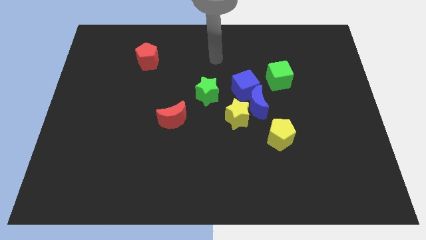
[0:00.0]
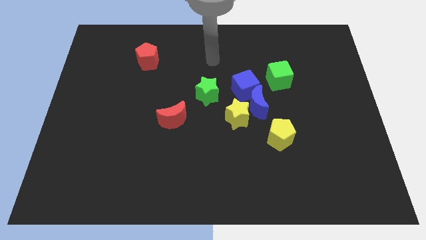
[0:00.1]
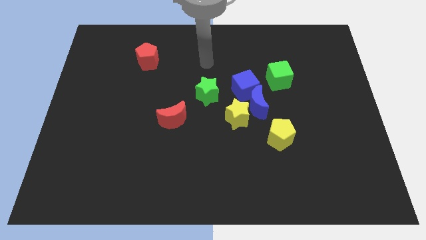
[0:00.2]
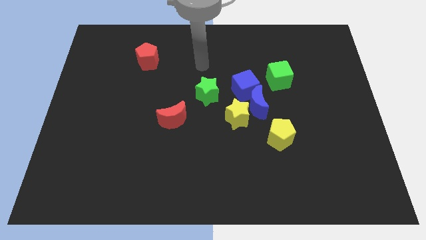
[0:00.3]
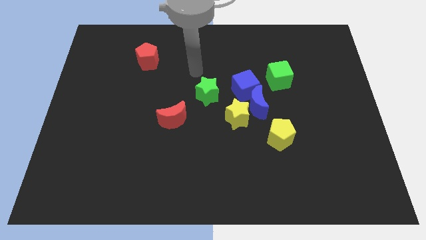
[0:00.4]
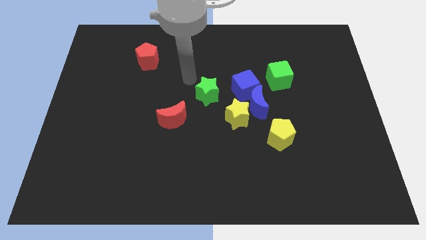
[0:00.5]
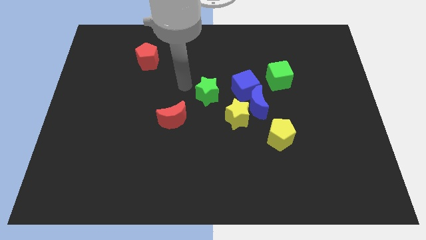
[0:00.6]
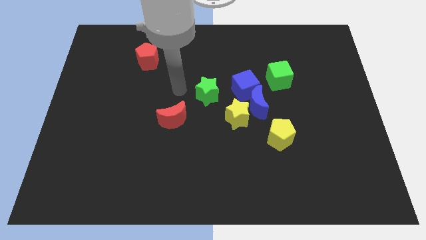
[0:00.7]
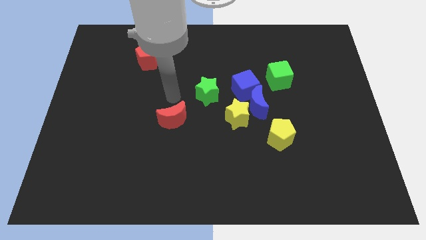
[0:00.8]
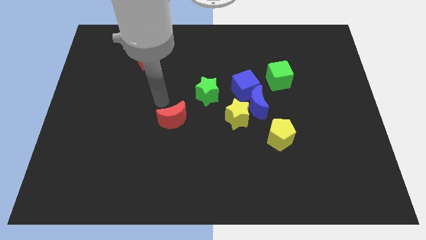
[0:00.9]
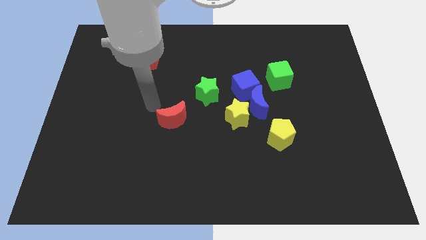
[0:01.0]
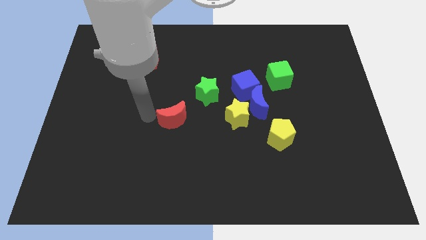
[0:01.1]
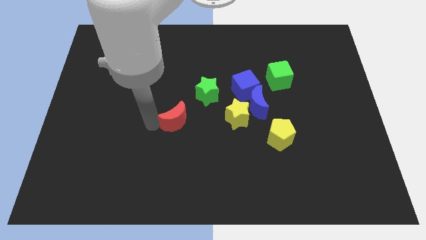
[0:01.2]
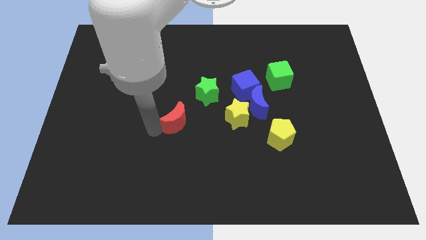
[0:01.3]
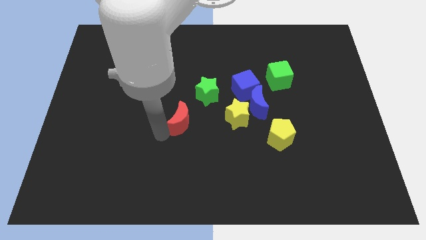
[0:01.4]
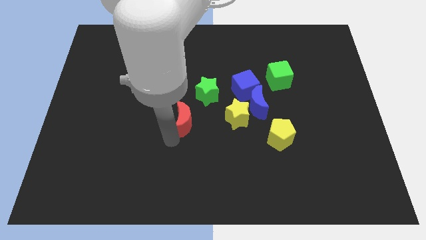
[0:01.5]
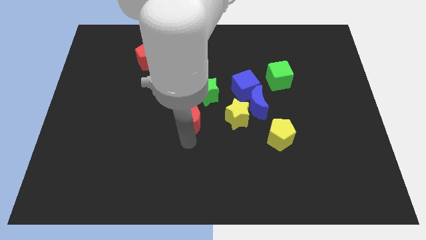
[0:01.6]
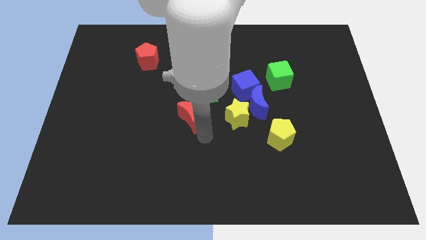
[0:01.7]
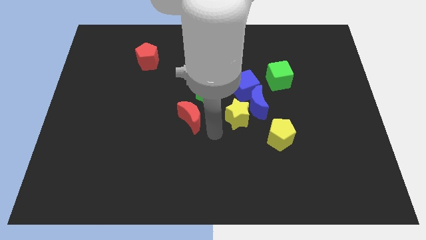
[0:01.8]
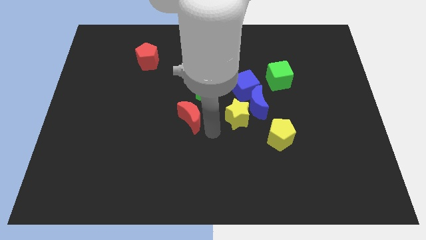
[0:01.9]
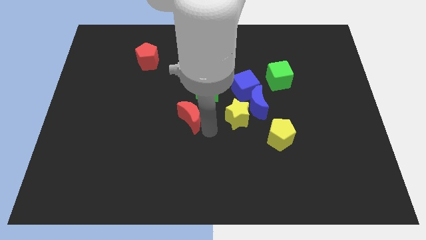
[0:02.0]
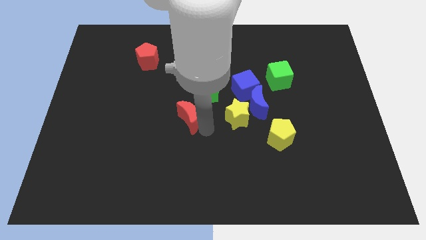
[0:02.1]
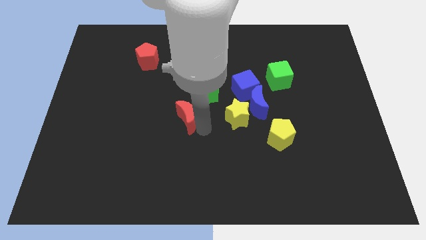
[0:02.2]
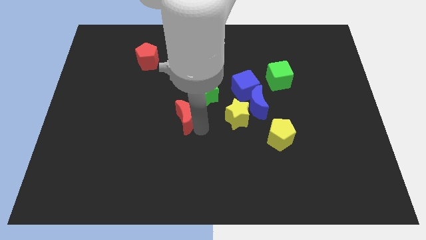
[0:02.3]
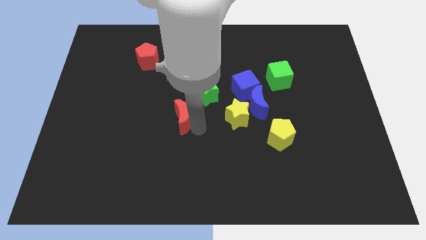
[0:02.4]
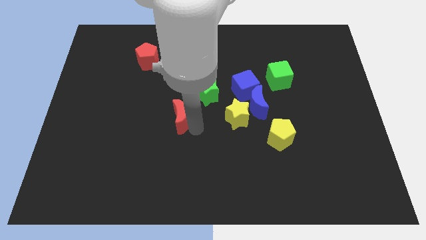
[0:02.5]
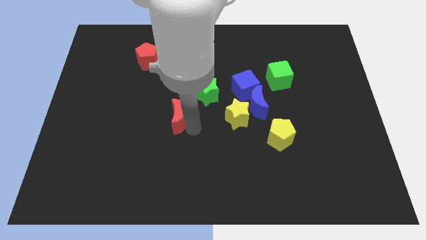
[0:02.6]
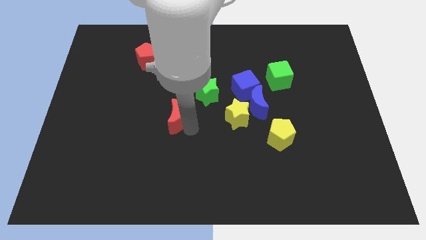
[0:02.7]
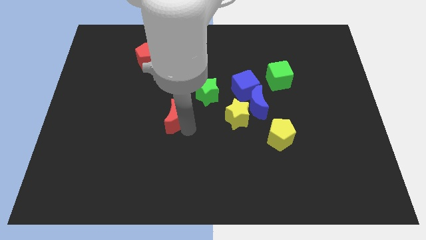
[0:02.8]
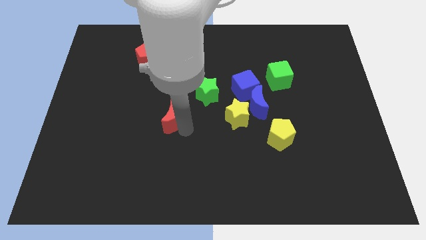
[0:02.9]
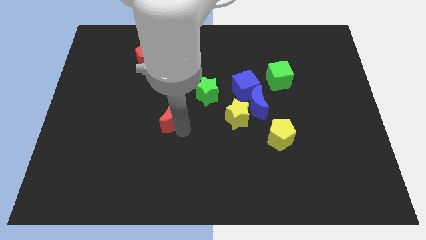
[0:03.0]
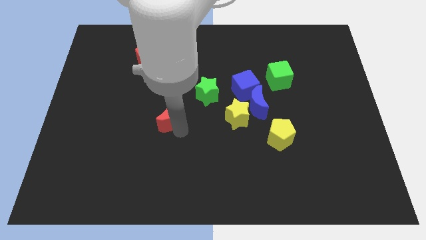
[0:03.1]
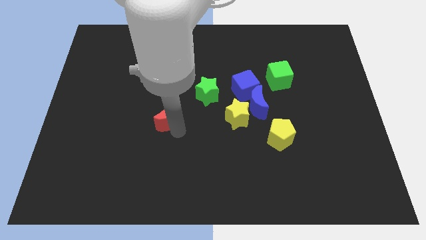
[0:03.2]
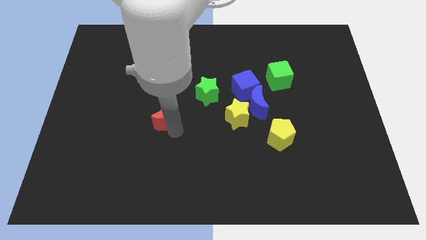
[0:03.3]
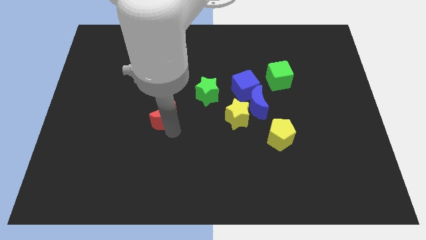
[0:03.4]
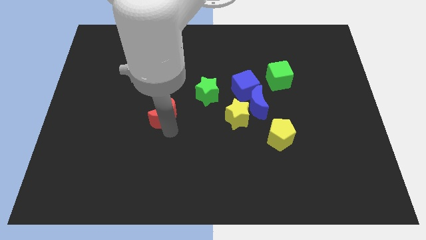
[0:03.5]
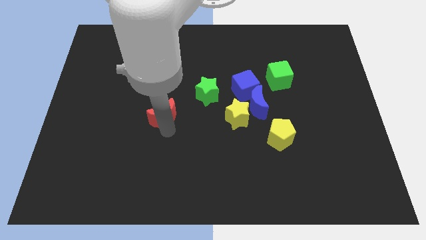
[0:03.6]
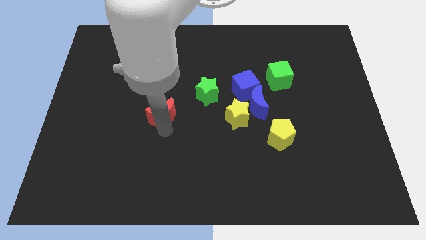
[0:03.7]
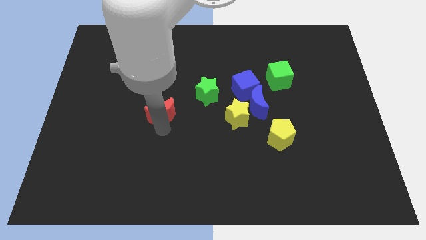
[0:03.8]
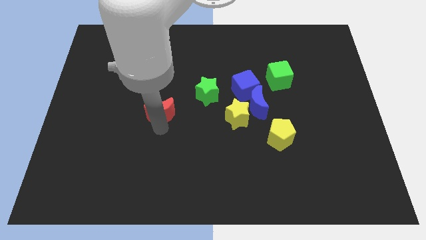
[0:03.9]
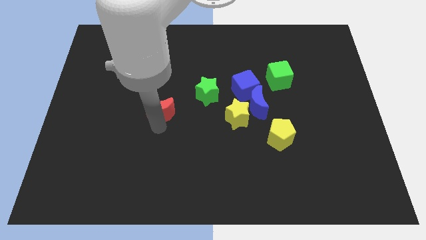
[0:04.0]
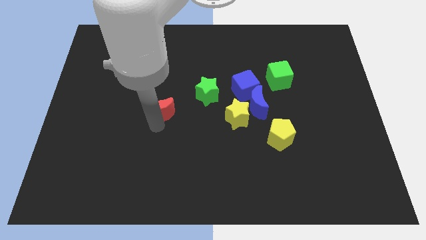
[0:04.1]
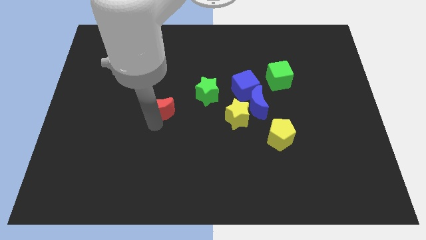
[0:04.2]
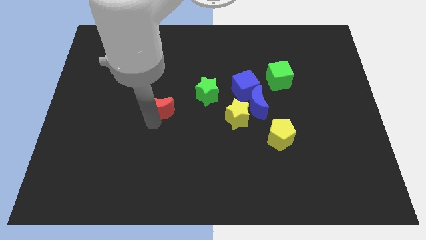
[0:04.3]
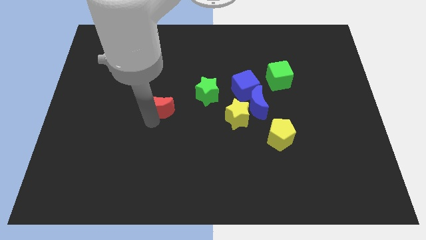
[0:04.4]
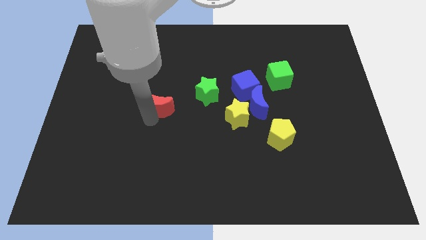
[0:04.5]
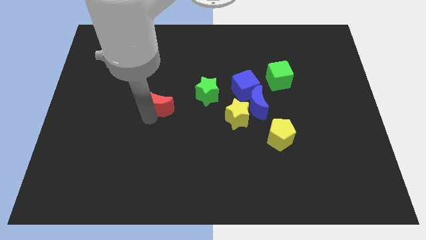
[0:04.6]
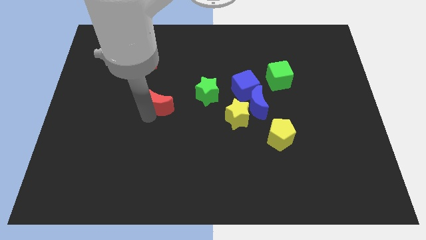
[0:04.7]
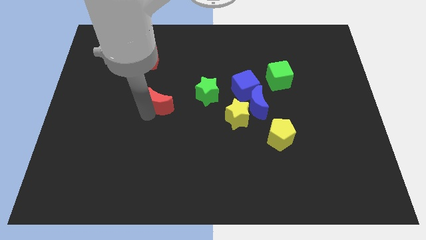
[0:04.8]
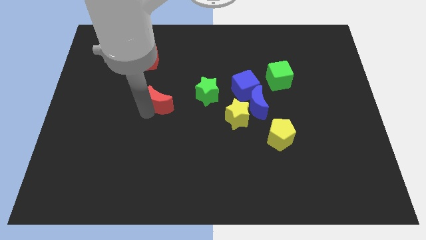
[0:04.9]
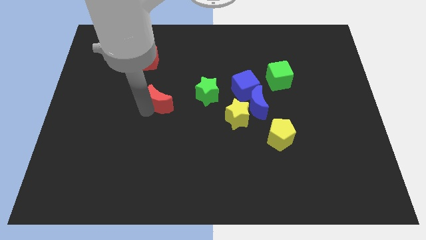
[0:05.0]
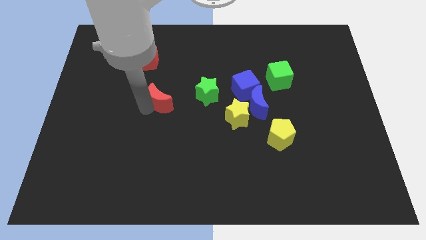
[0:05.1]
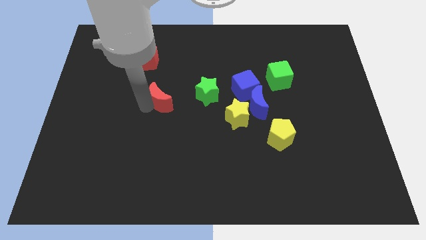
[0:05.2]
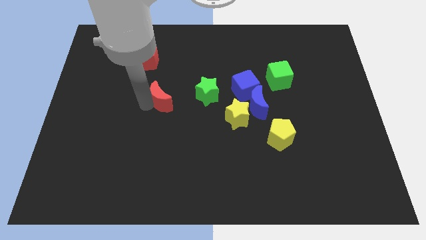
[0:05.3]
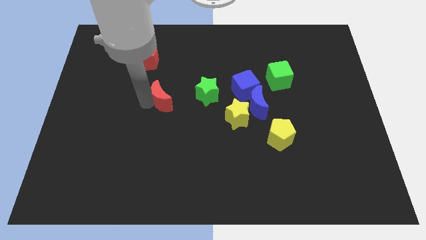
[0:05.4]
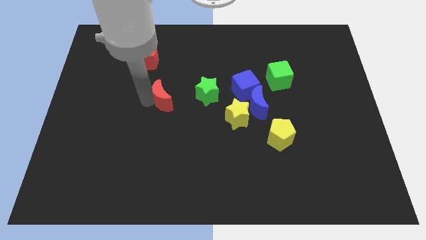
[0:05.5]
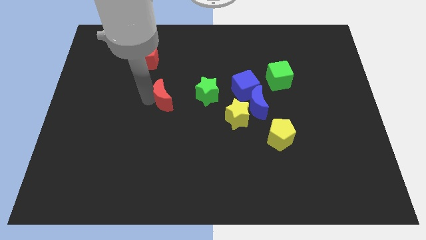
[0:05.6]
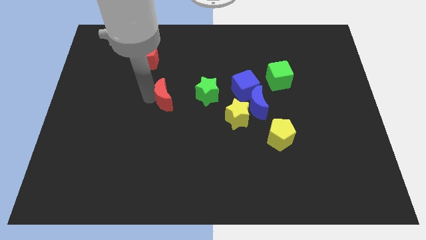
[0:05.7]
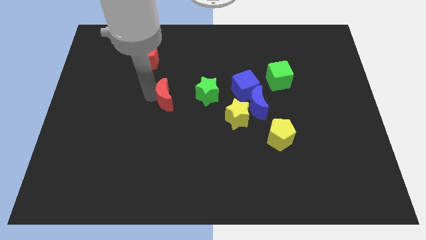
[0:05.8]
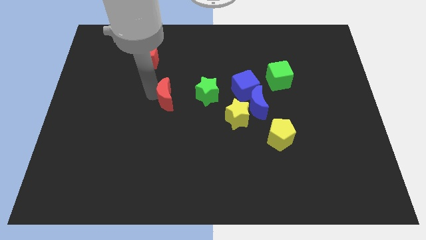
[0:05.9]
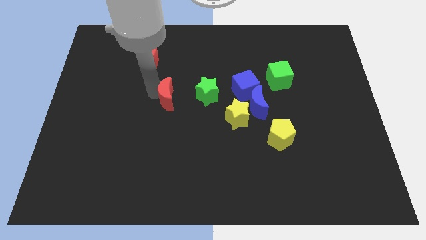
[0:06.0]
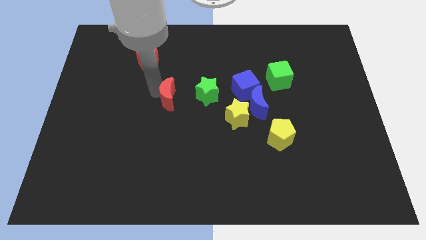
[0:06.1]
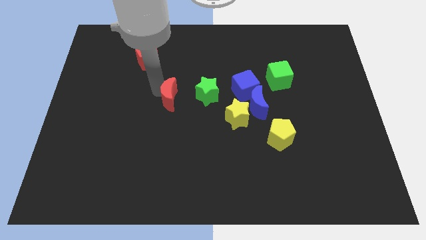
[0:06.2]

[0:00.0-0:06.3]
move the red moon a little upwards

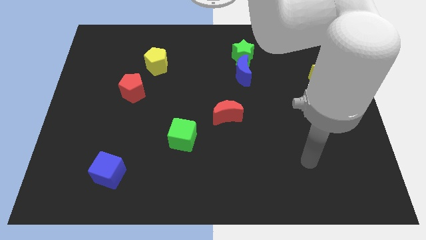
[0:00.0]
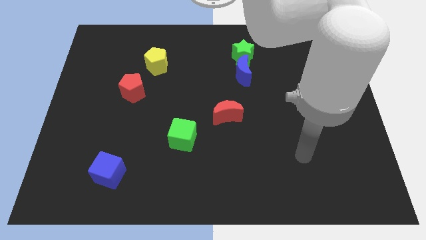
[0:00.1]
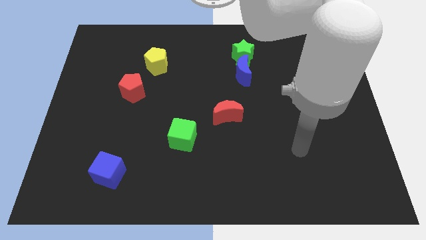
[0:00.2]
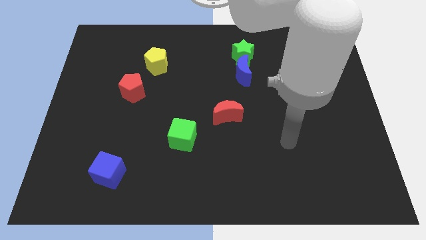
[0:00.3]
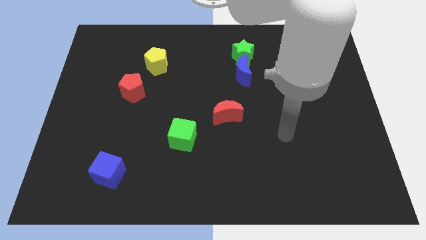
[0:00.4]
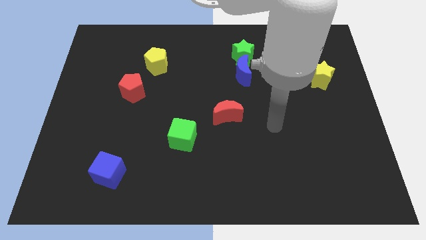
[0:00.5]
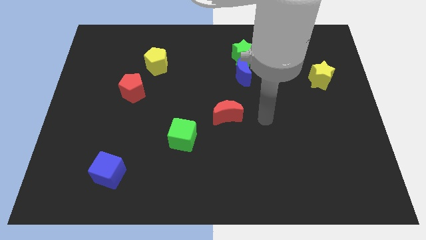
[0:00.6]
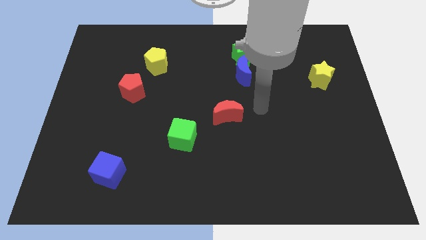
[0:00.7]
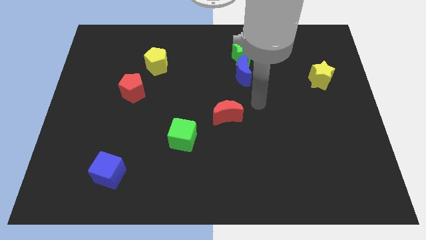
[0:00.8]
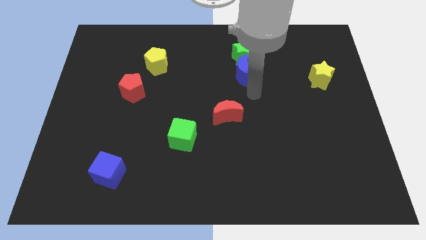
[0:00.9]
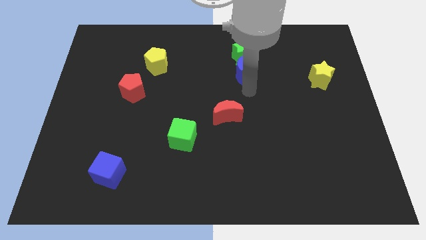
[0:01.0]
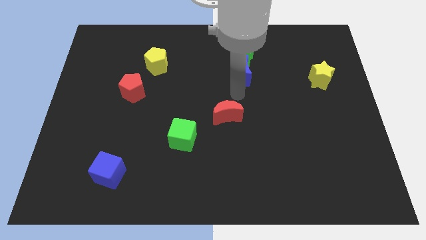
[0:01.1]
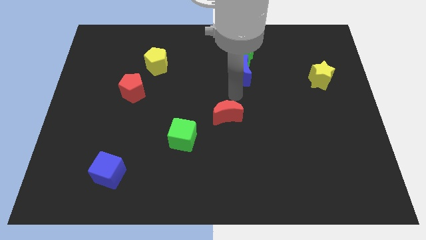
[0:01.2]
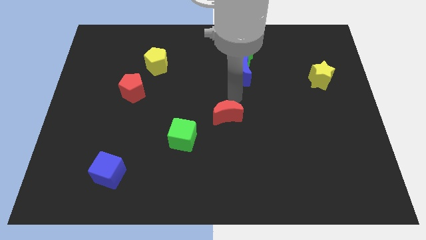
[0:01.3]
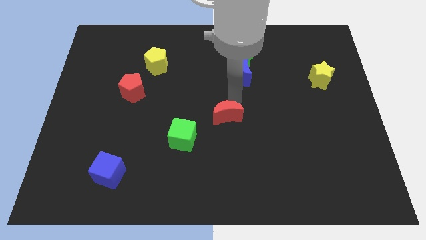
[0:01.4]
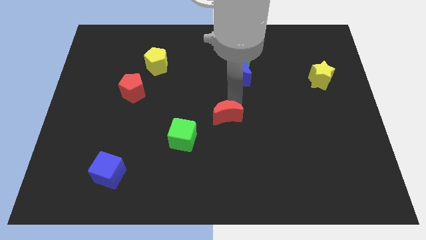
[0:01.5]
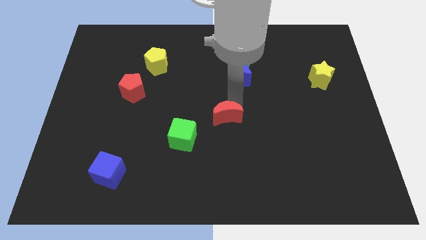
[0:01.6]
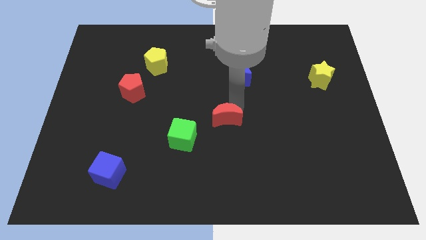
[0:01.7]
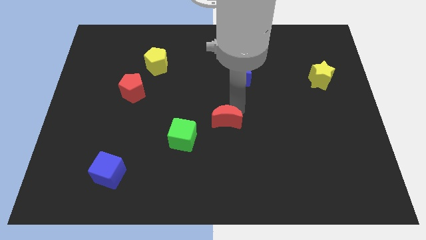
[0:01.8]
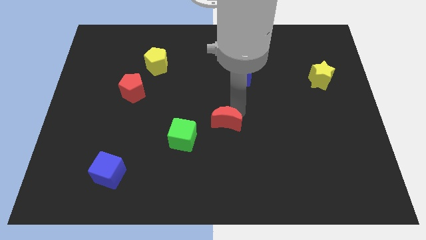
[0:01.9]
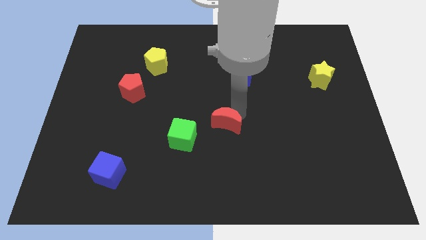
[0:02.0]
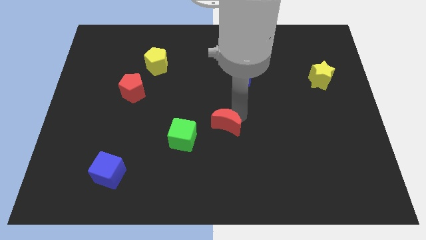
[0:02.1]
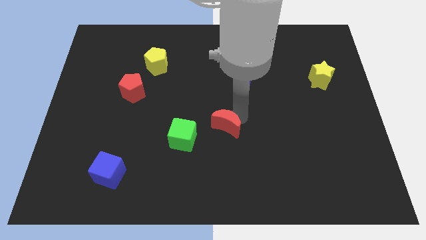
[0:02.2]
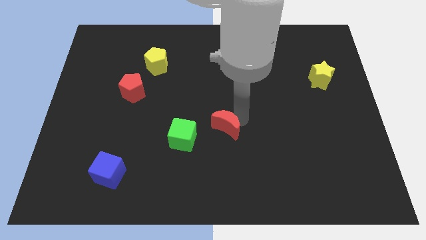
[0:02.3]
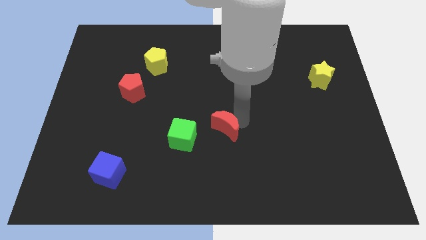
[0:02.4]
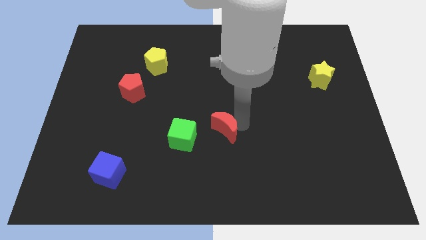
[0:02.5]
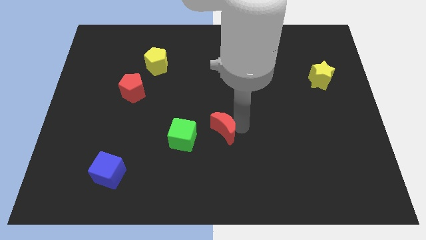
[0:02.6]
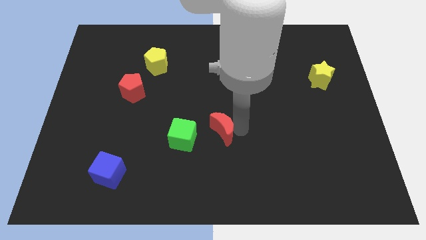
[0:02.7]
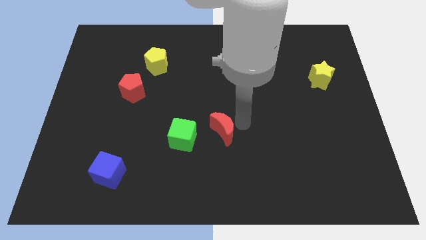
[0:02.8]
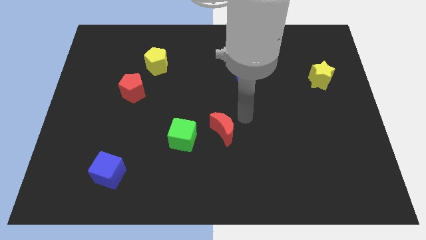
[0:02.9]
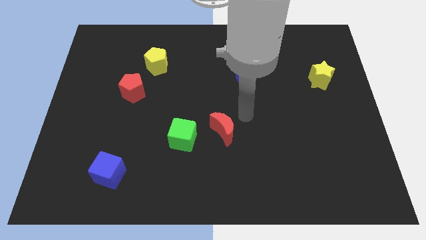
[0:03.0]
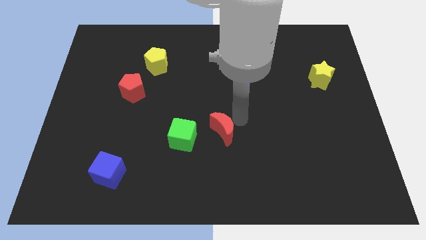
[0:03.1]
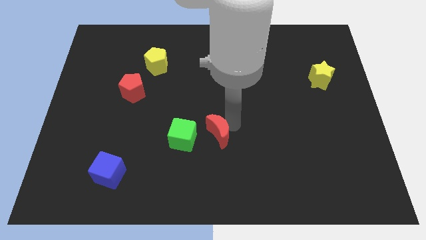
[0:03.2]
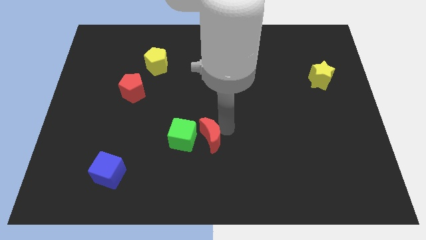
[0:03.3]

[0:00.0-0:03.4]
slide the red moon a little down and to the left
